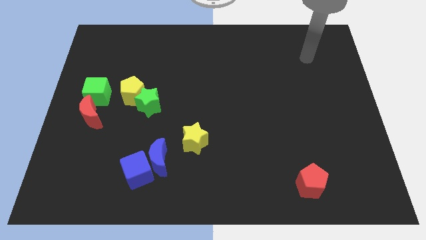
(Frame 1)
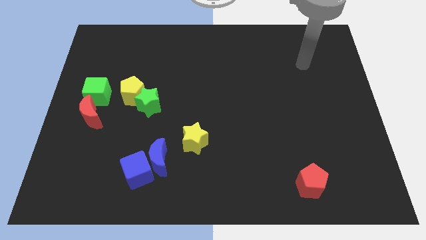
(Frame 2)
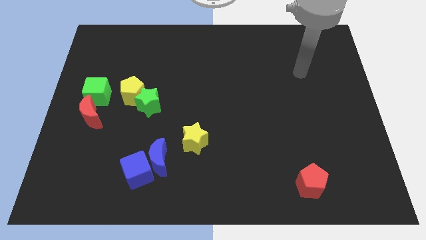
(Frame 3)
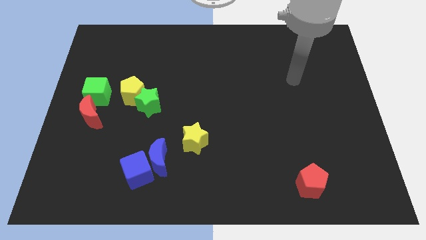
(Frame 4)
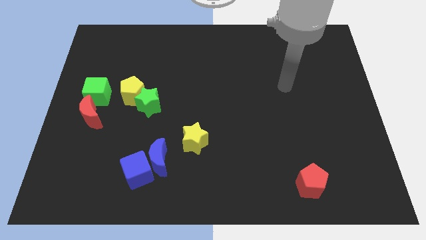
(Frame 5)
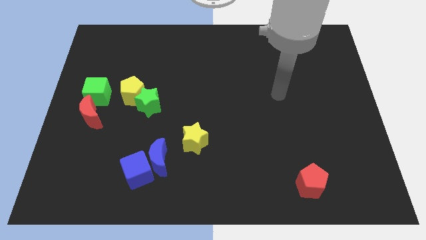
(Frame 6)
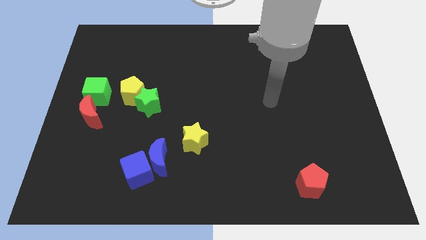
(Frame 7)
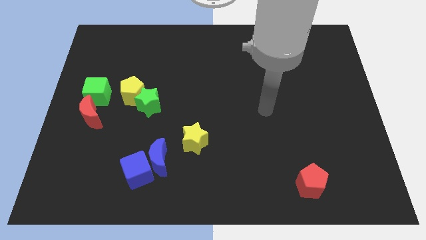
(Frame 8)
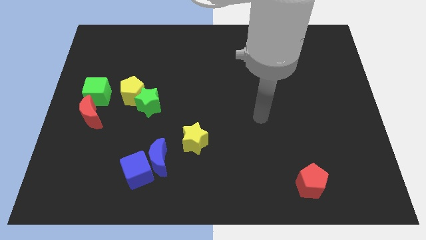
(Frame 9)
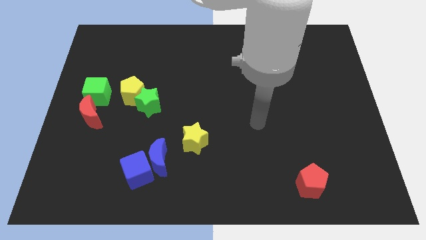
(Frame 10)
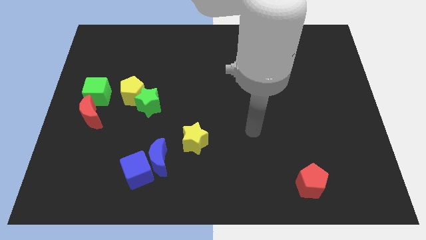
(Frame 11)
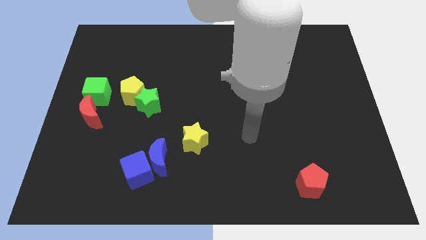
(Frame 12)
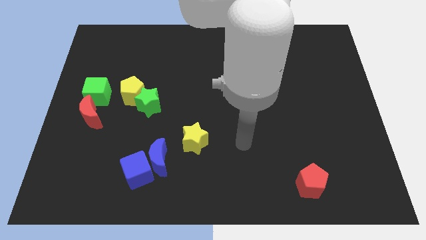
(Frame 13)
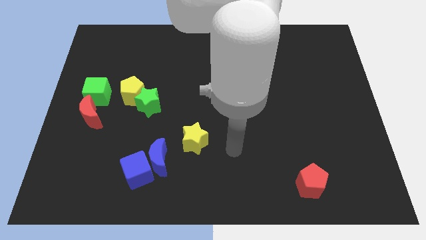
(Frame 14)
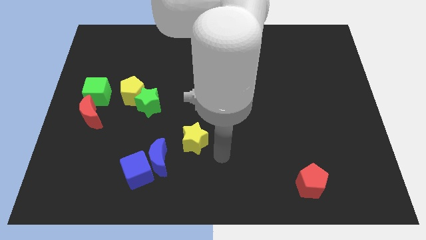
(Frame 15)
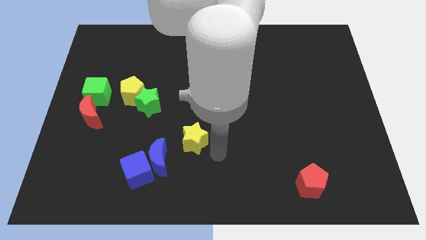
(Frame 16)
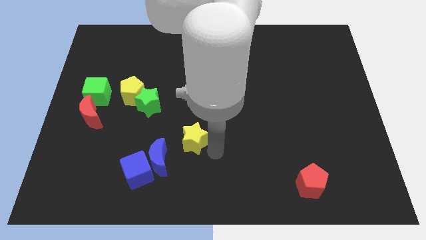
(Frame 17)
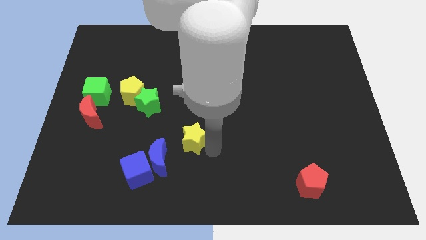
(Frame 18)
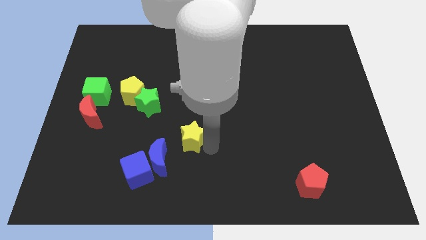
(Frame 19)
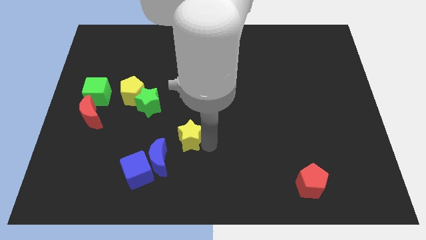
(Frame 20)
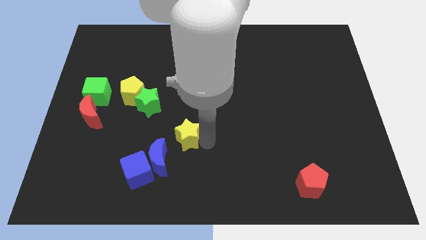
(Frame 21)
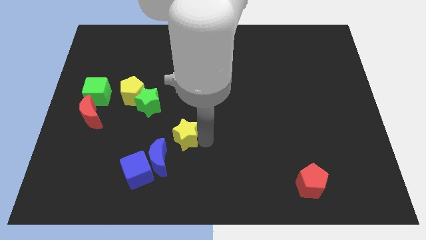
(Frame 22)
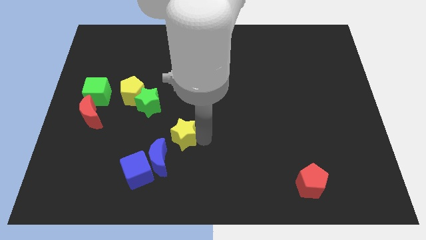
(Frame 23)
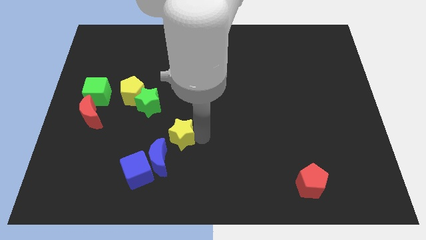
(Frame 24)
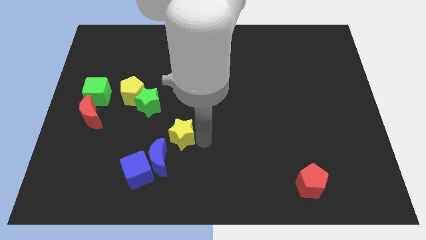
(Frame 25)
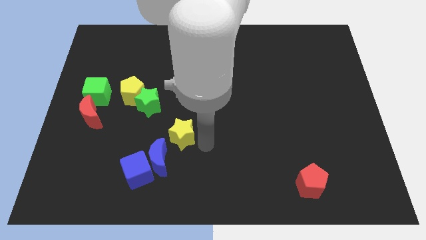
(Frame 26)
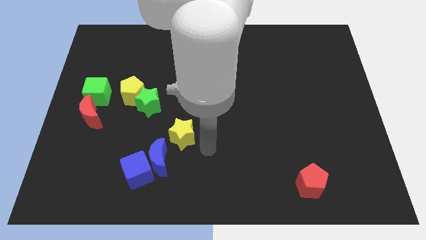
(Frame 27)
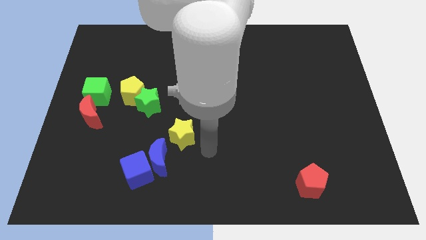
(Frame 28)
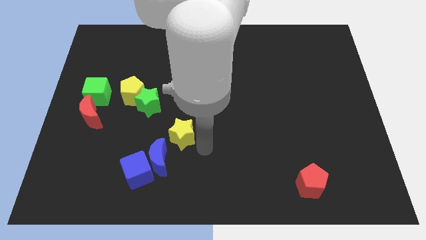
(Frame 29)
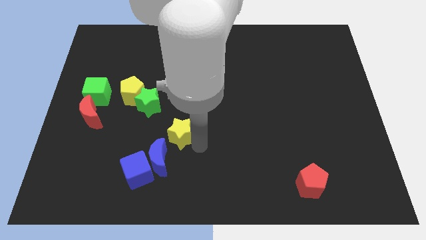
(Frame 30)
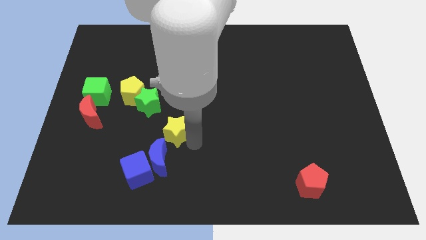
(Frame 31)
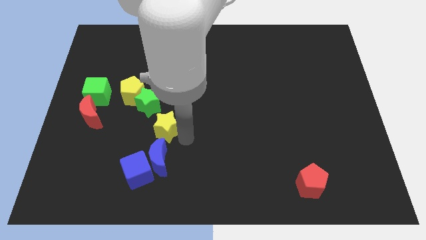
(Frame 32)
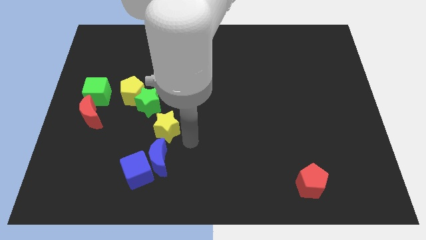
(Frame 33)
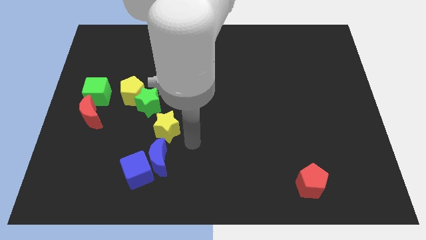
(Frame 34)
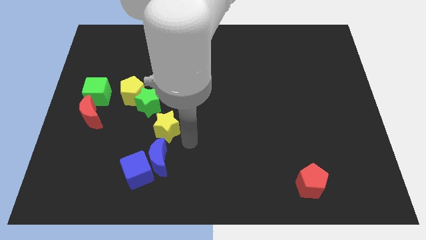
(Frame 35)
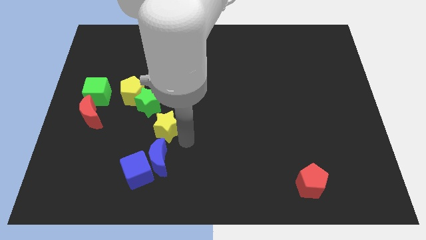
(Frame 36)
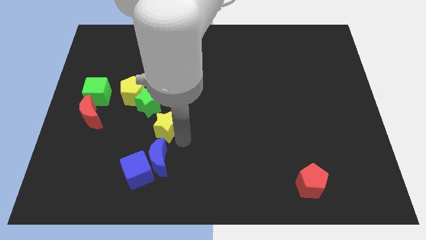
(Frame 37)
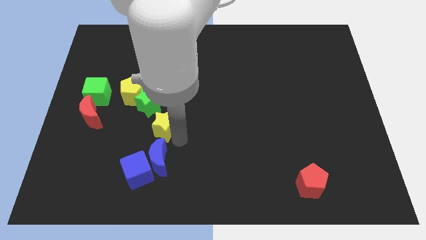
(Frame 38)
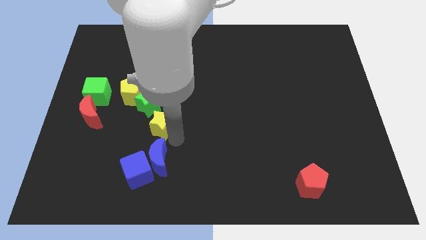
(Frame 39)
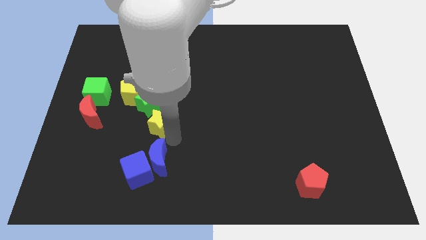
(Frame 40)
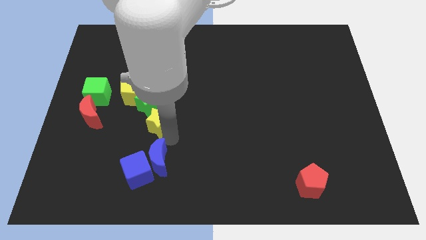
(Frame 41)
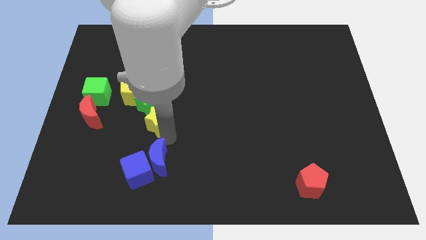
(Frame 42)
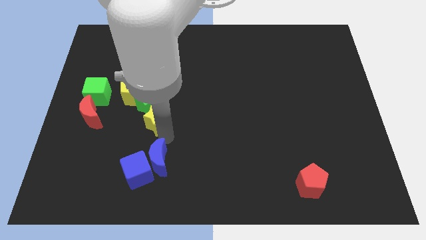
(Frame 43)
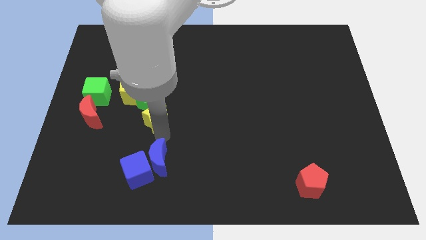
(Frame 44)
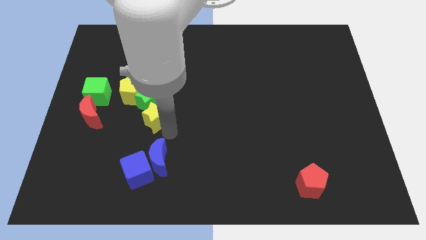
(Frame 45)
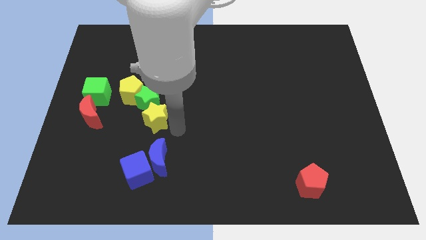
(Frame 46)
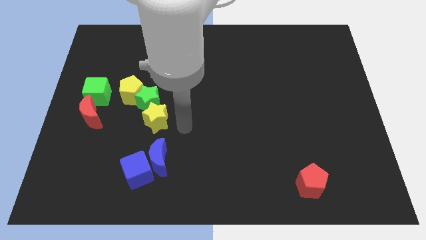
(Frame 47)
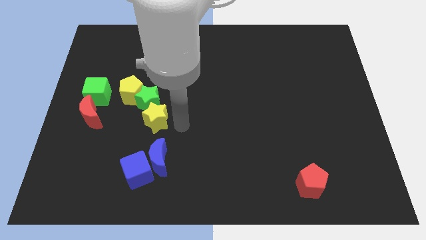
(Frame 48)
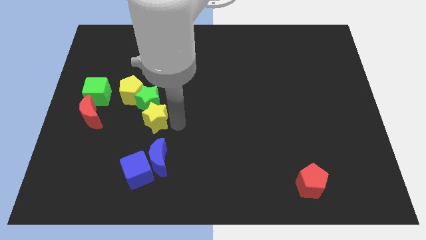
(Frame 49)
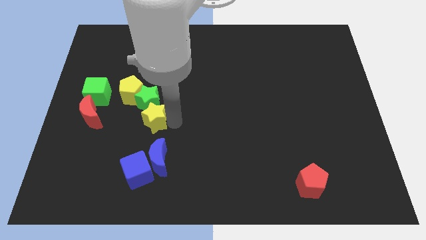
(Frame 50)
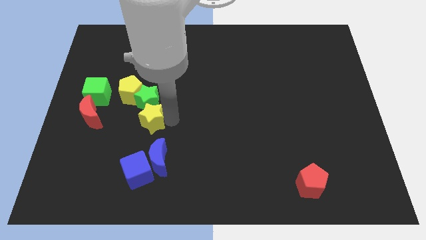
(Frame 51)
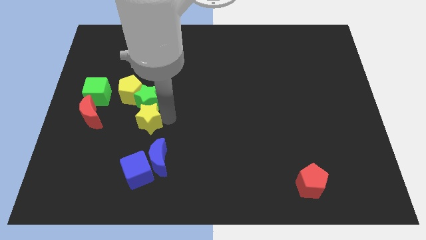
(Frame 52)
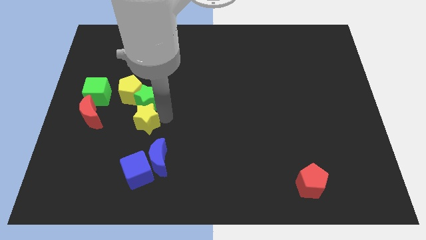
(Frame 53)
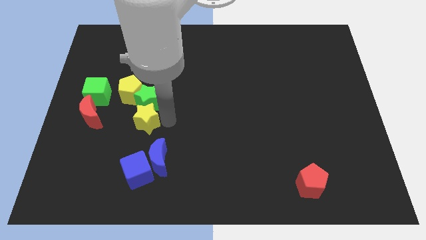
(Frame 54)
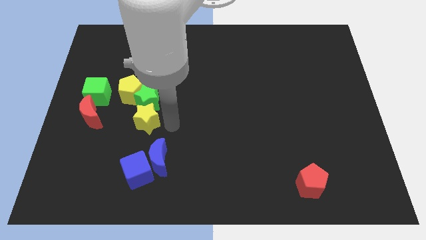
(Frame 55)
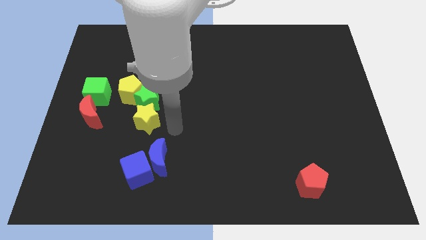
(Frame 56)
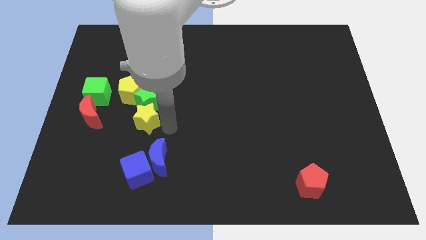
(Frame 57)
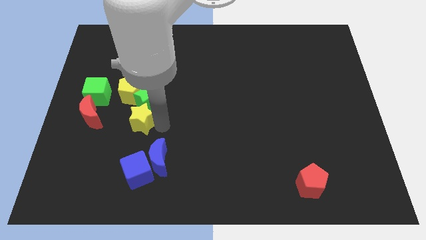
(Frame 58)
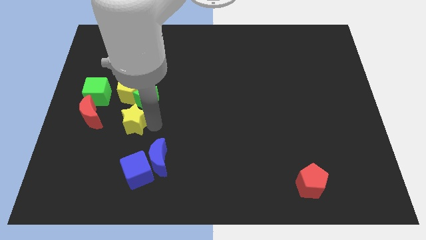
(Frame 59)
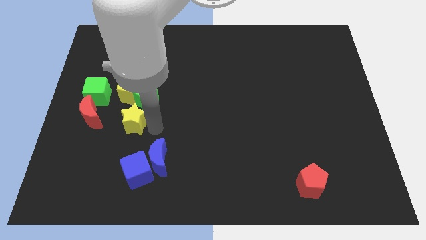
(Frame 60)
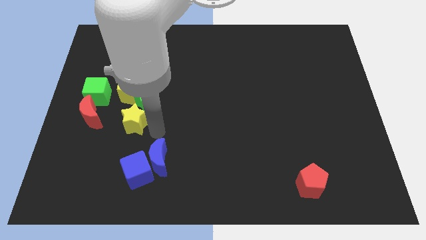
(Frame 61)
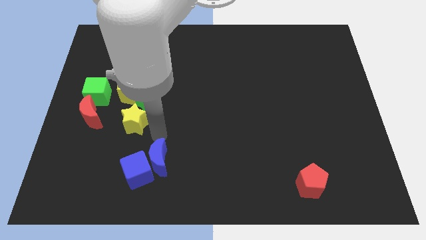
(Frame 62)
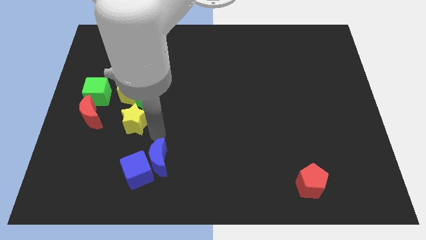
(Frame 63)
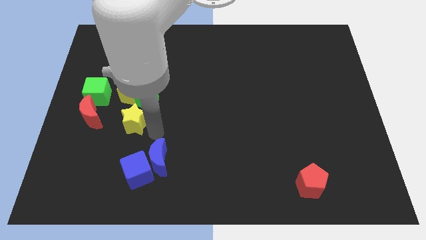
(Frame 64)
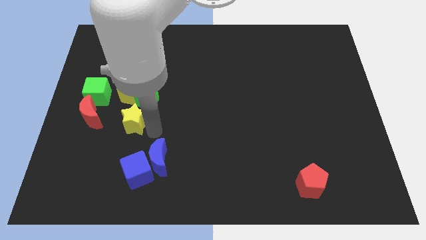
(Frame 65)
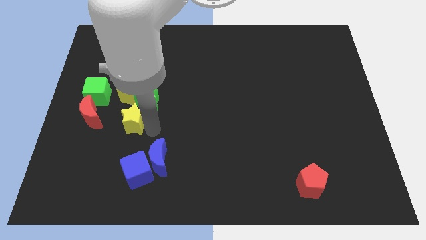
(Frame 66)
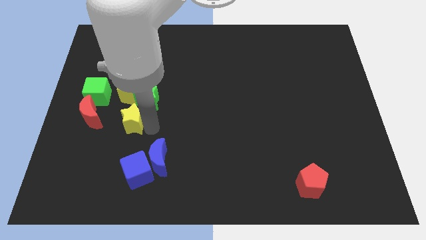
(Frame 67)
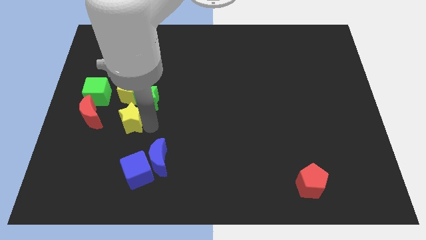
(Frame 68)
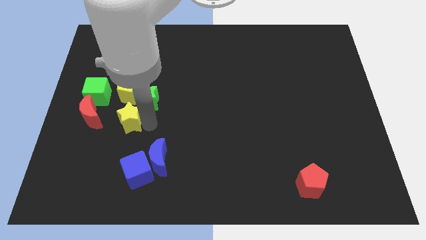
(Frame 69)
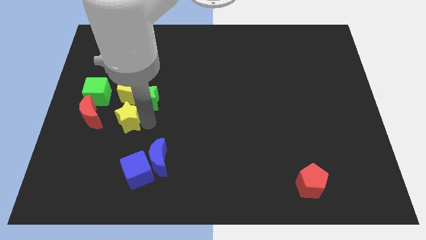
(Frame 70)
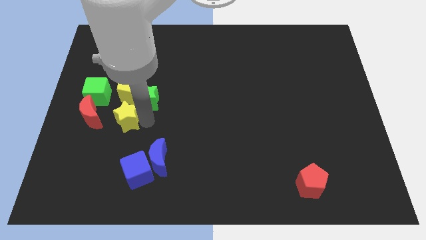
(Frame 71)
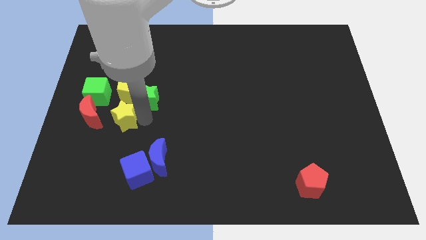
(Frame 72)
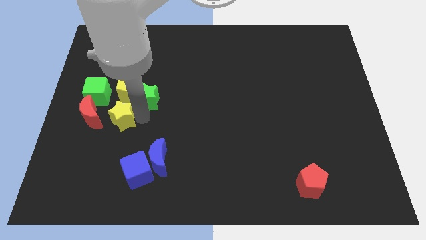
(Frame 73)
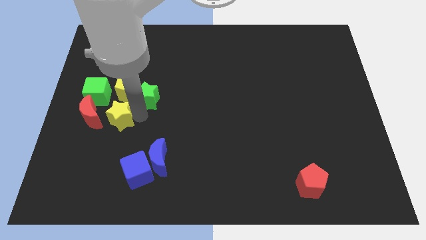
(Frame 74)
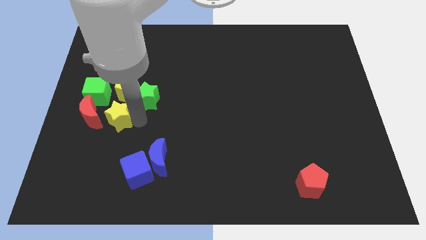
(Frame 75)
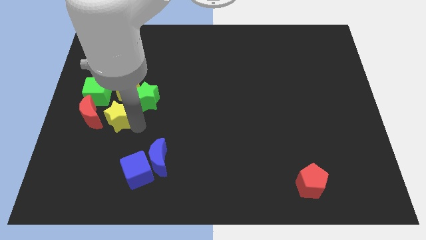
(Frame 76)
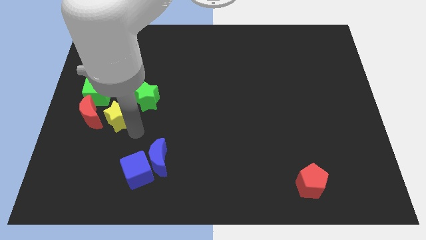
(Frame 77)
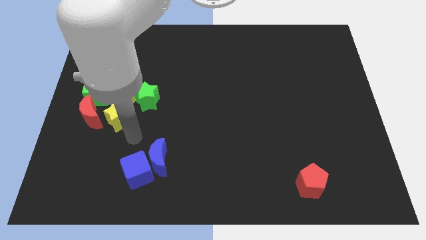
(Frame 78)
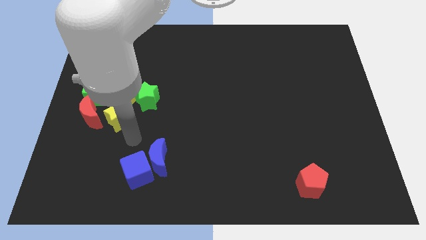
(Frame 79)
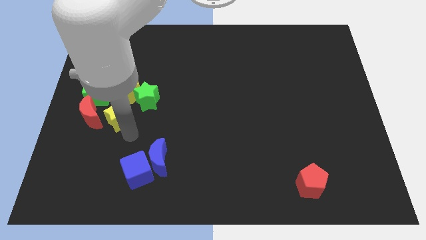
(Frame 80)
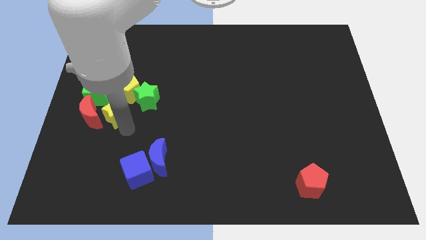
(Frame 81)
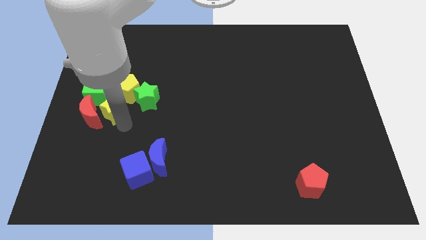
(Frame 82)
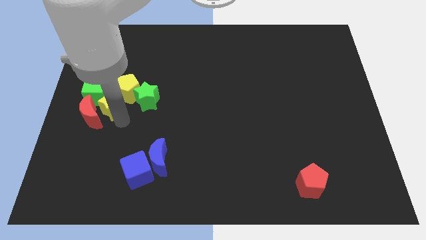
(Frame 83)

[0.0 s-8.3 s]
push the yellow star next to the green cube
